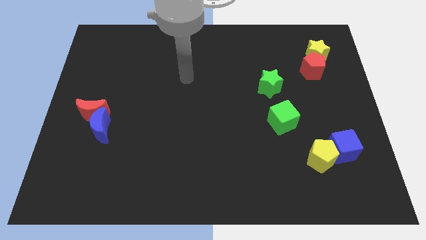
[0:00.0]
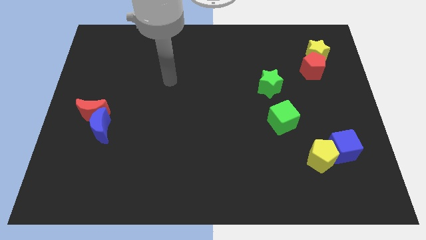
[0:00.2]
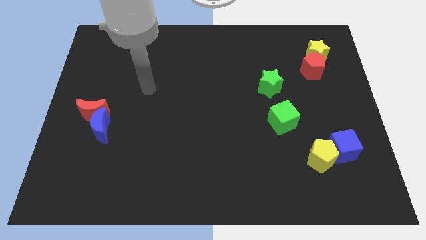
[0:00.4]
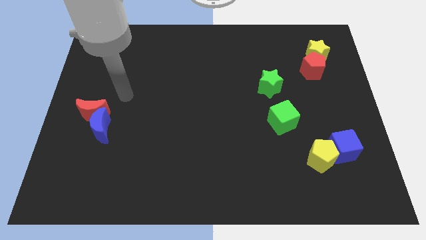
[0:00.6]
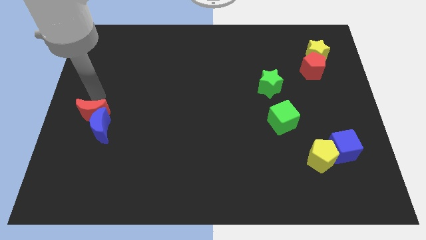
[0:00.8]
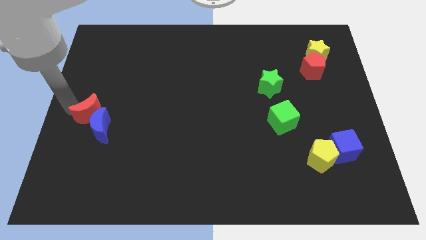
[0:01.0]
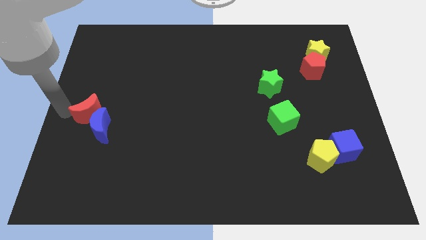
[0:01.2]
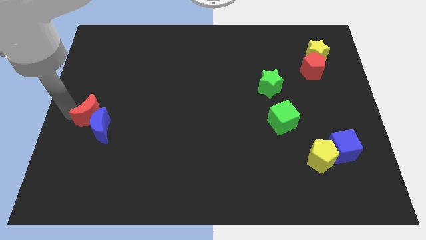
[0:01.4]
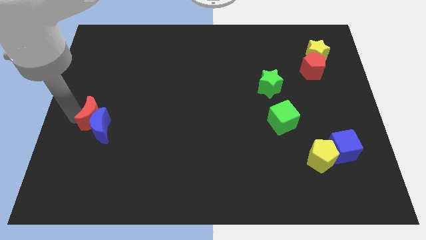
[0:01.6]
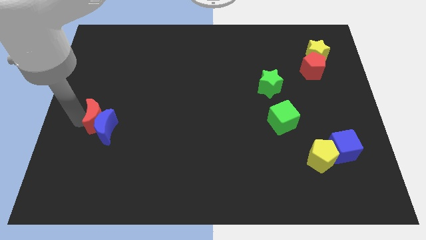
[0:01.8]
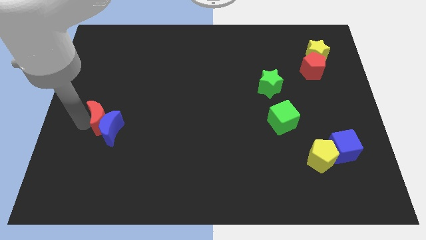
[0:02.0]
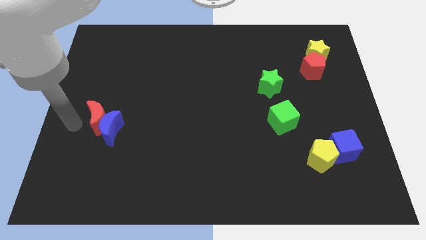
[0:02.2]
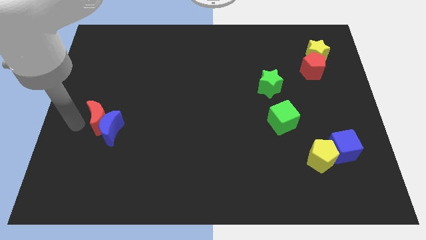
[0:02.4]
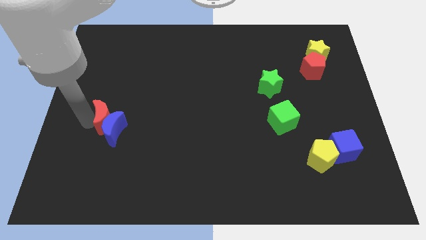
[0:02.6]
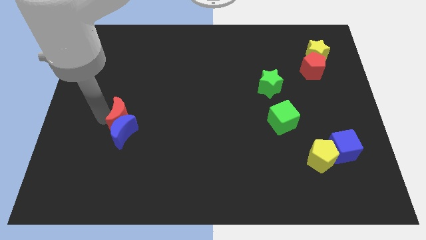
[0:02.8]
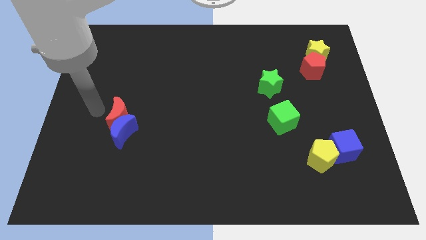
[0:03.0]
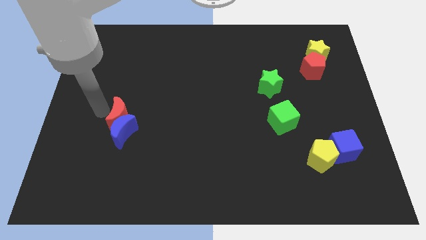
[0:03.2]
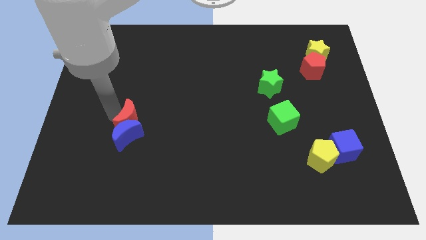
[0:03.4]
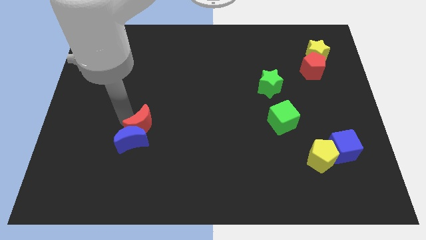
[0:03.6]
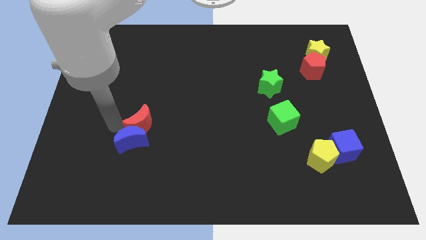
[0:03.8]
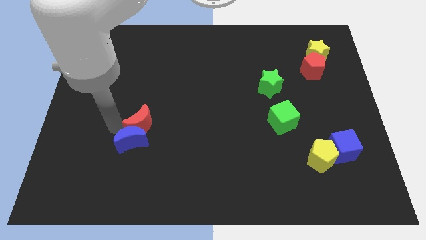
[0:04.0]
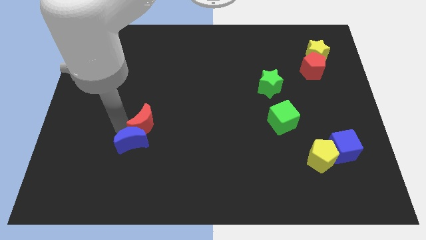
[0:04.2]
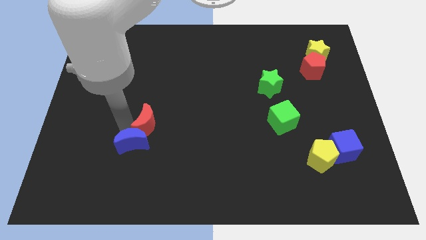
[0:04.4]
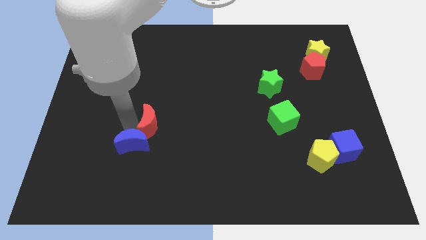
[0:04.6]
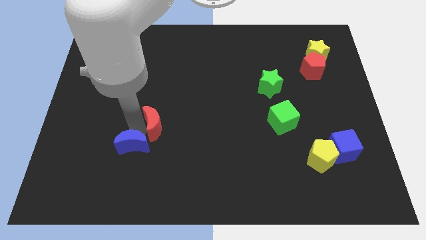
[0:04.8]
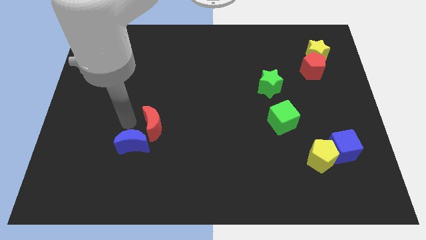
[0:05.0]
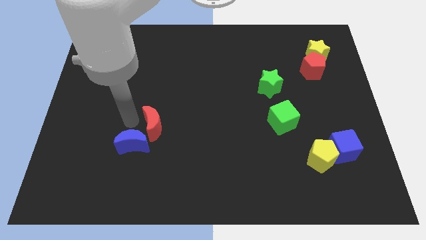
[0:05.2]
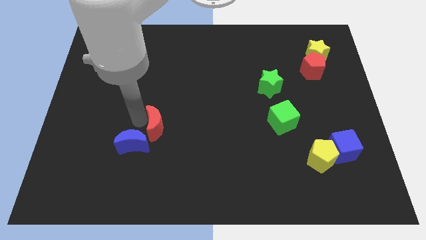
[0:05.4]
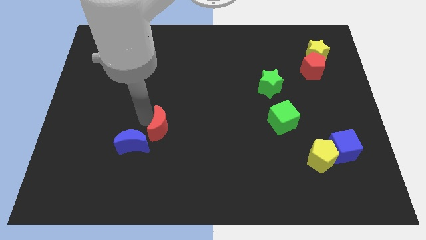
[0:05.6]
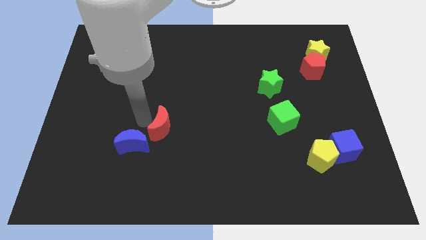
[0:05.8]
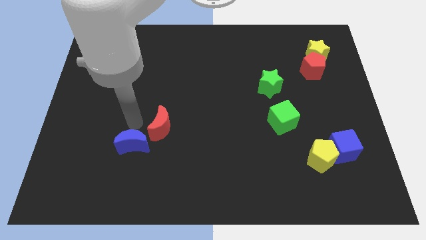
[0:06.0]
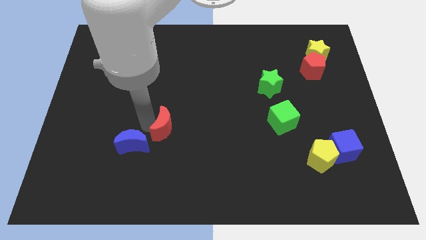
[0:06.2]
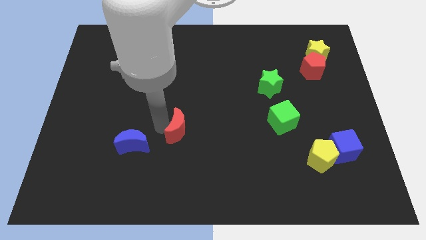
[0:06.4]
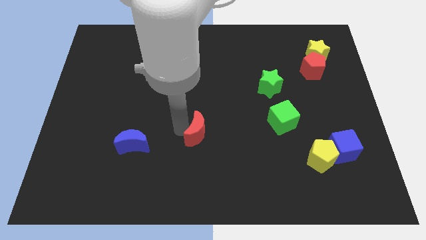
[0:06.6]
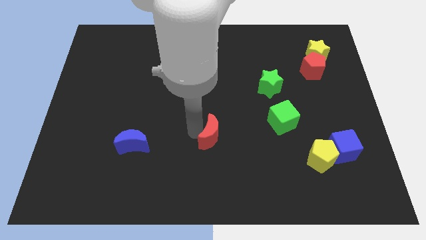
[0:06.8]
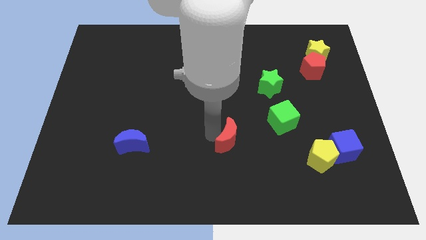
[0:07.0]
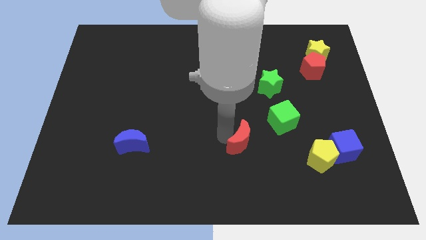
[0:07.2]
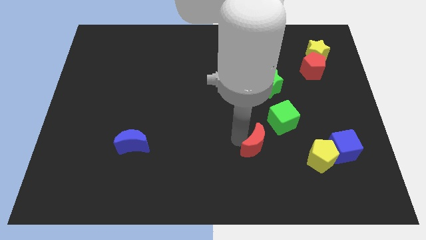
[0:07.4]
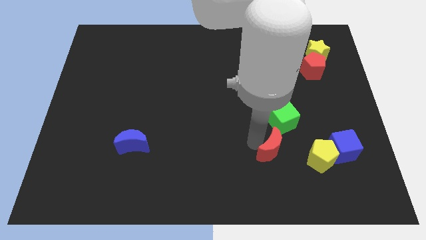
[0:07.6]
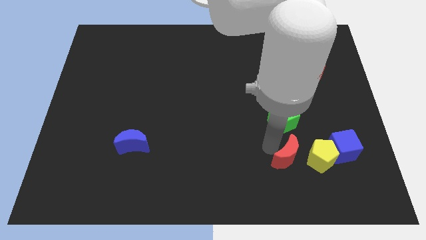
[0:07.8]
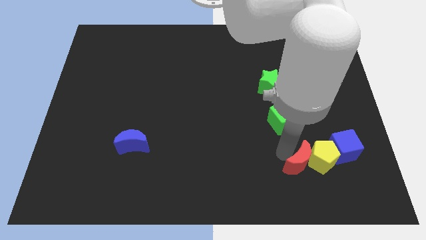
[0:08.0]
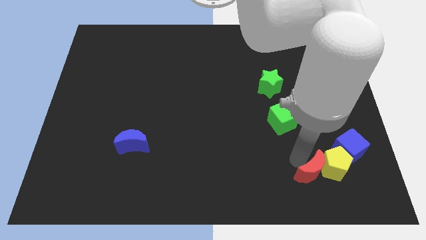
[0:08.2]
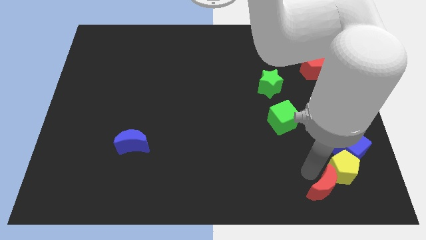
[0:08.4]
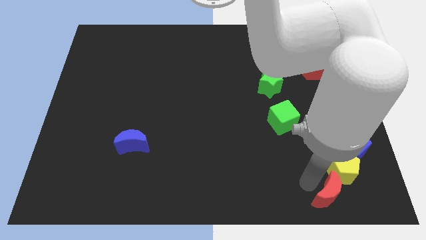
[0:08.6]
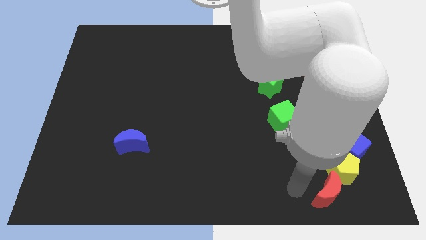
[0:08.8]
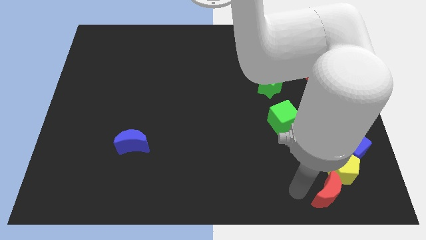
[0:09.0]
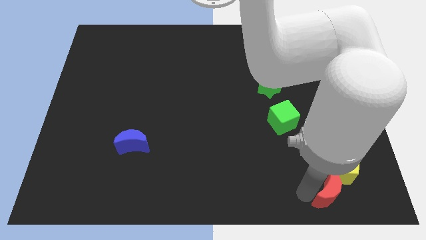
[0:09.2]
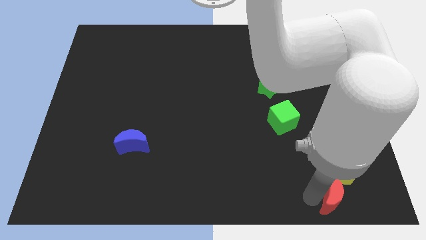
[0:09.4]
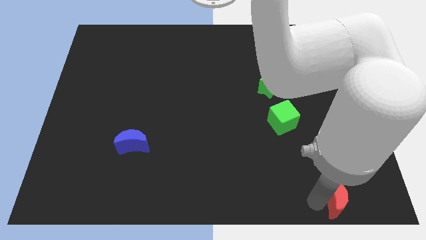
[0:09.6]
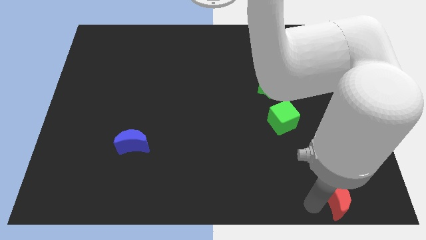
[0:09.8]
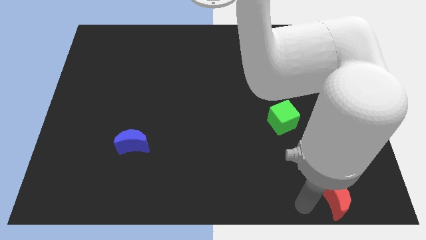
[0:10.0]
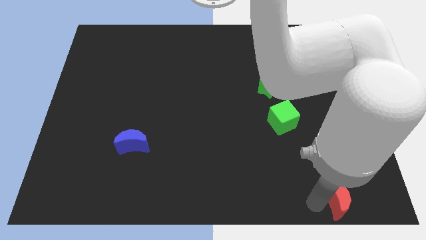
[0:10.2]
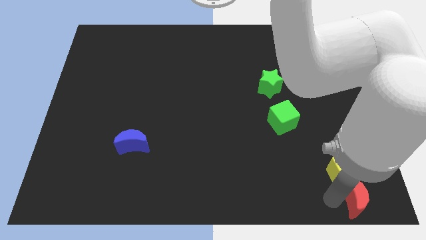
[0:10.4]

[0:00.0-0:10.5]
move the red moon to the bottom right of the board

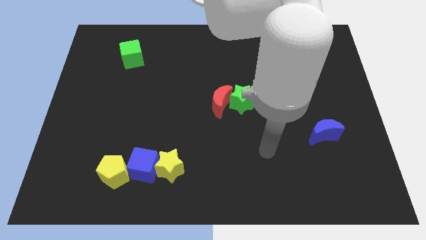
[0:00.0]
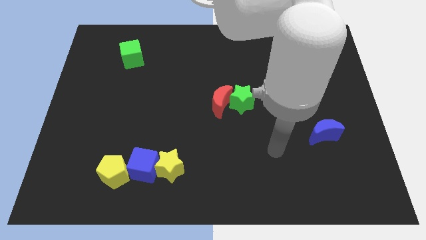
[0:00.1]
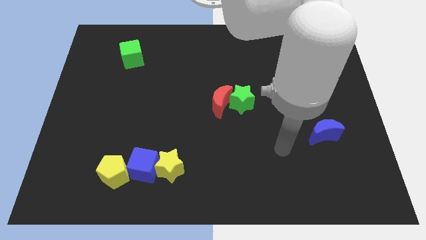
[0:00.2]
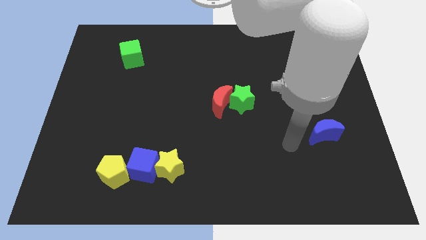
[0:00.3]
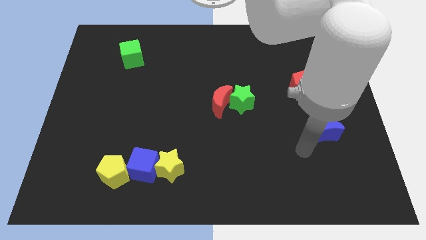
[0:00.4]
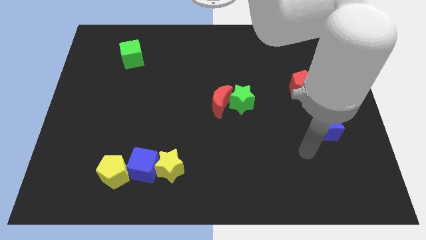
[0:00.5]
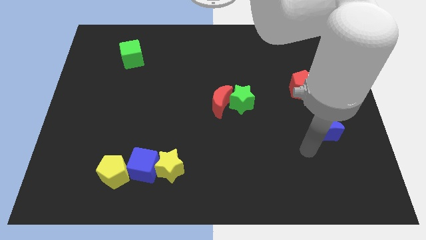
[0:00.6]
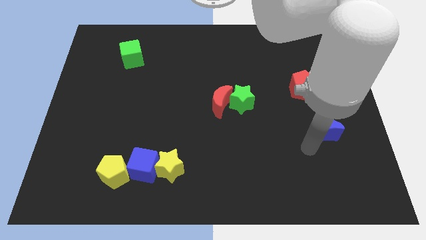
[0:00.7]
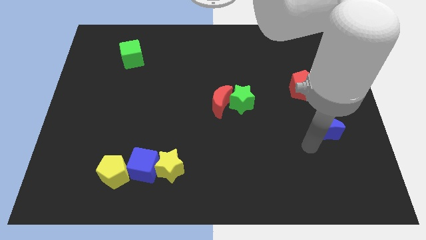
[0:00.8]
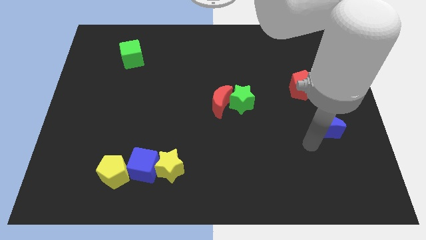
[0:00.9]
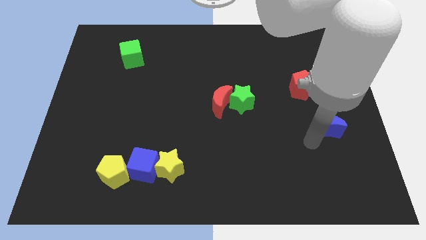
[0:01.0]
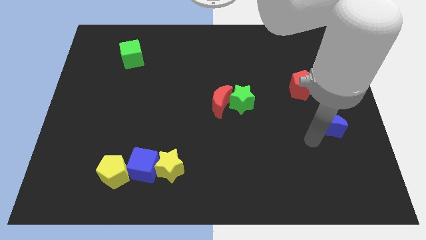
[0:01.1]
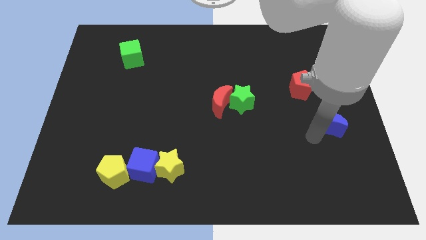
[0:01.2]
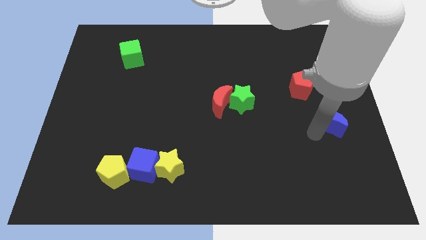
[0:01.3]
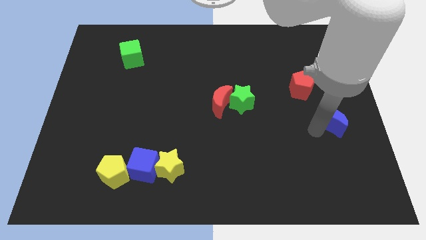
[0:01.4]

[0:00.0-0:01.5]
move the blue moon to the right side

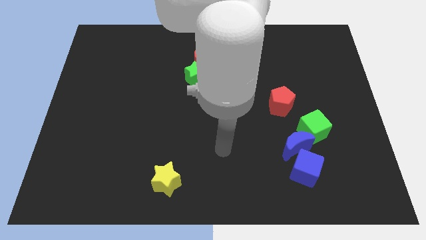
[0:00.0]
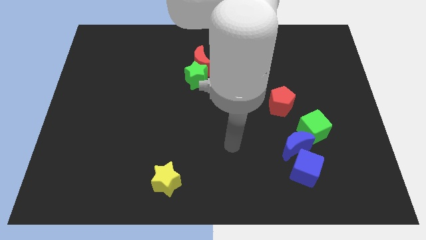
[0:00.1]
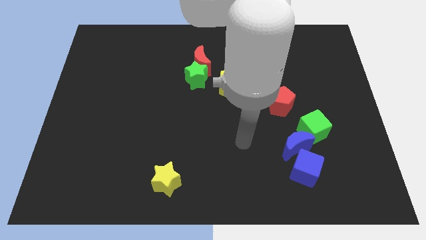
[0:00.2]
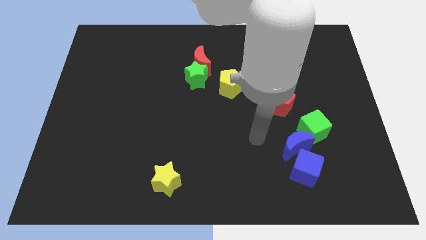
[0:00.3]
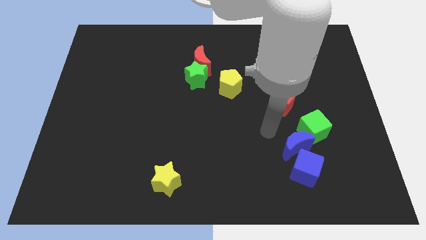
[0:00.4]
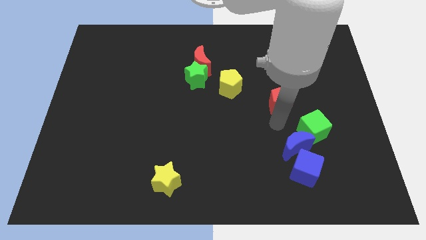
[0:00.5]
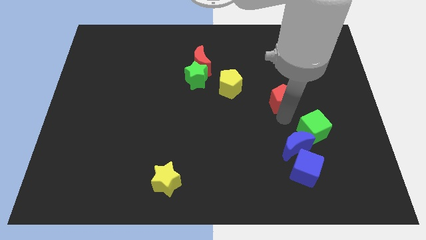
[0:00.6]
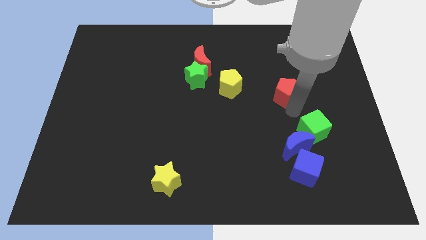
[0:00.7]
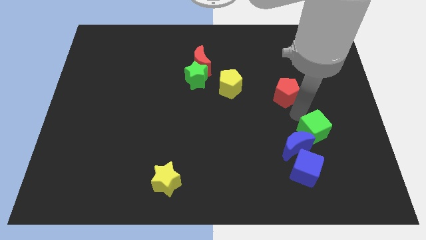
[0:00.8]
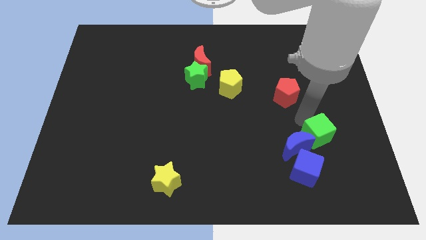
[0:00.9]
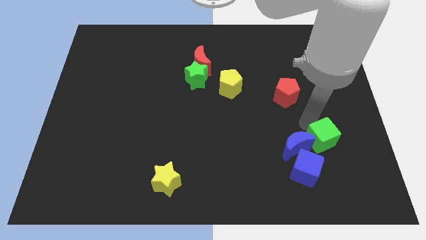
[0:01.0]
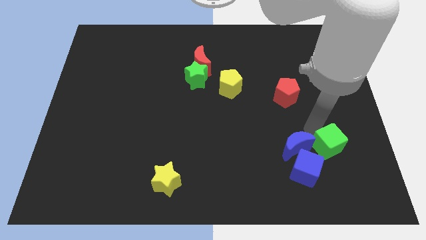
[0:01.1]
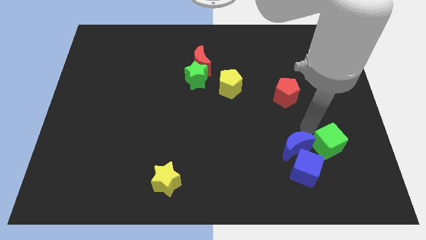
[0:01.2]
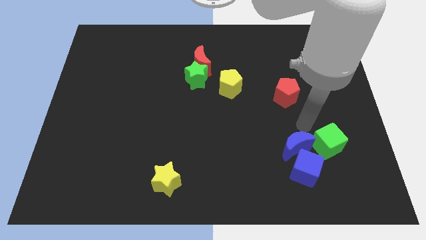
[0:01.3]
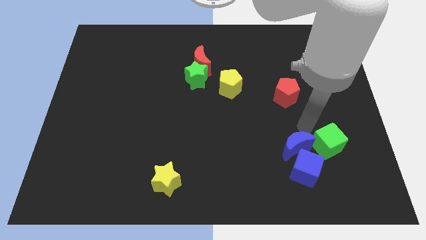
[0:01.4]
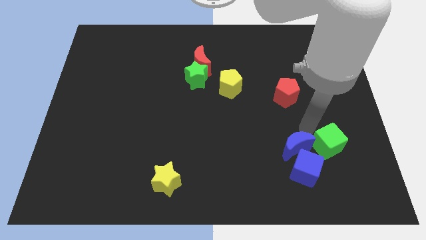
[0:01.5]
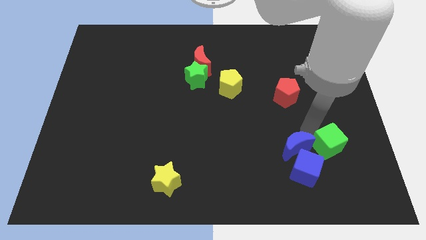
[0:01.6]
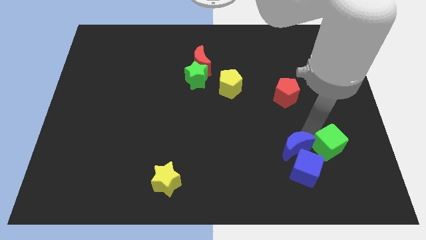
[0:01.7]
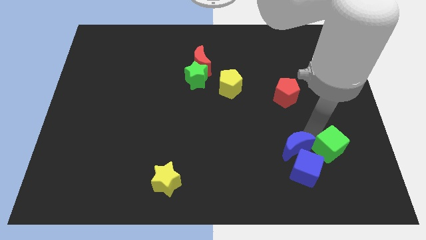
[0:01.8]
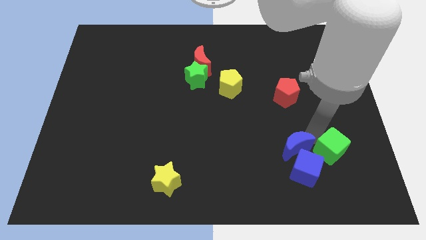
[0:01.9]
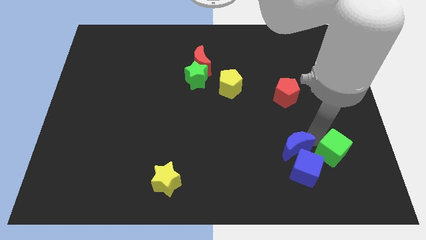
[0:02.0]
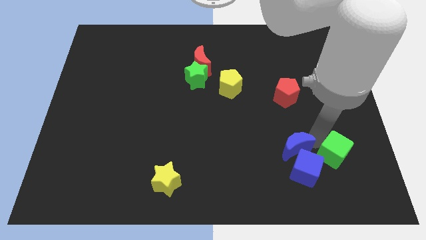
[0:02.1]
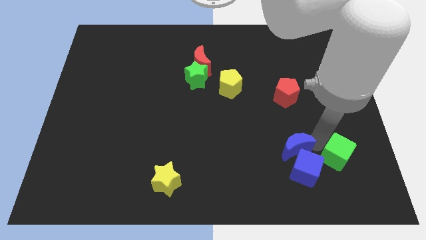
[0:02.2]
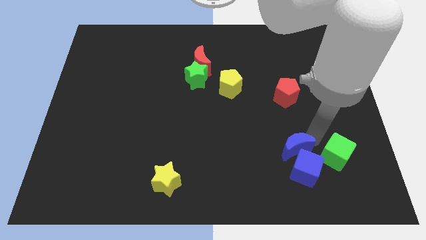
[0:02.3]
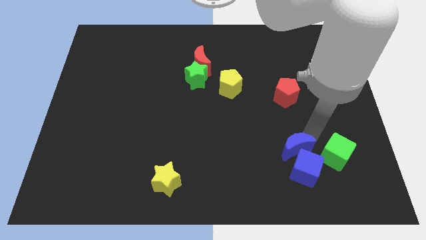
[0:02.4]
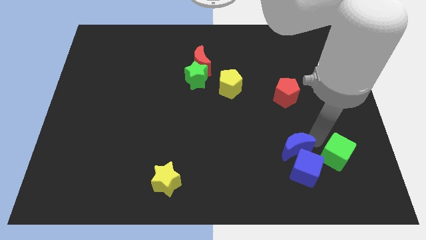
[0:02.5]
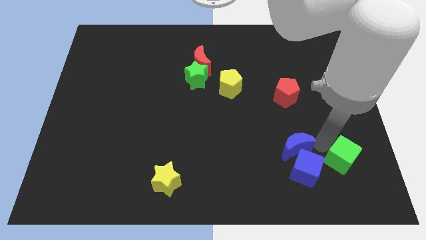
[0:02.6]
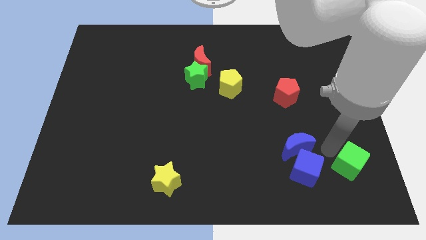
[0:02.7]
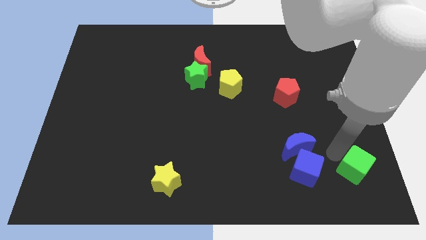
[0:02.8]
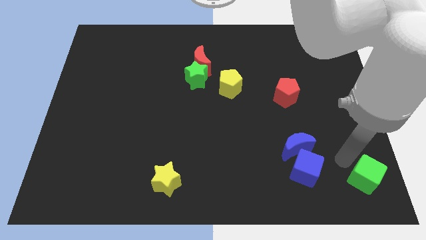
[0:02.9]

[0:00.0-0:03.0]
put the green cube to the bottom right
